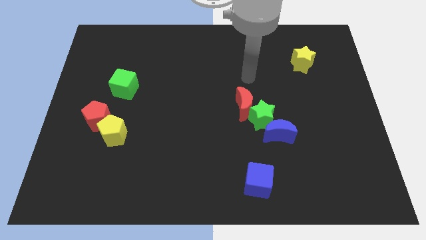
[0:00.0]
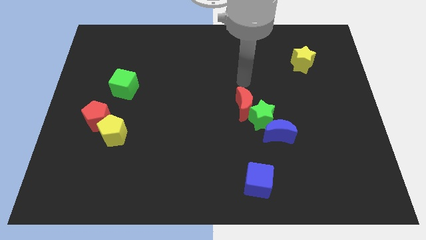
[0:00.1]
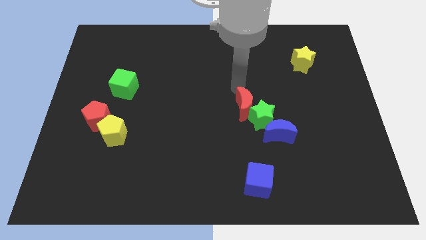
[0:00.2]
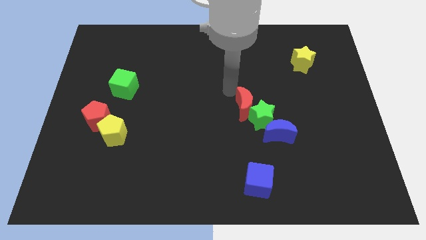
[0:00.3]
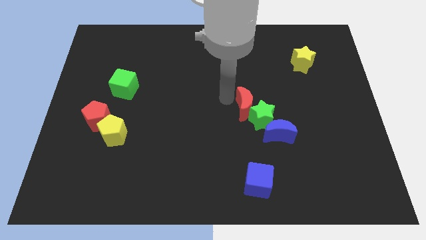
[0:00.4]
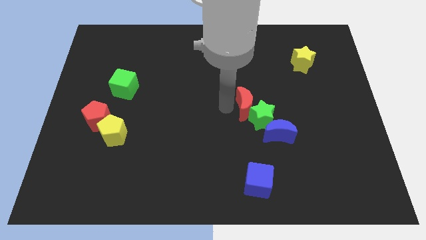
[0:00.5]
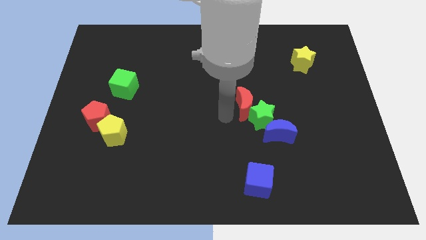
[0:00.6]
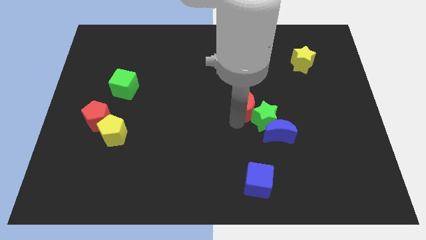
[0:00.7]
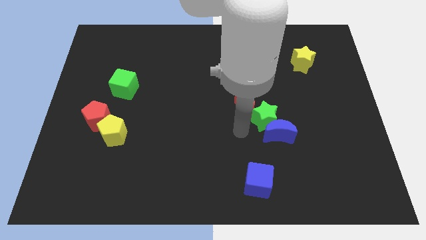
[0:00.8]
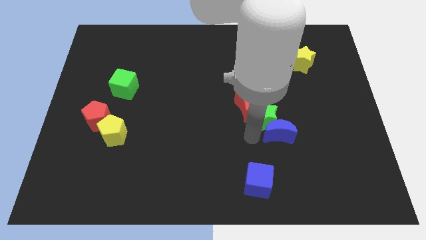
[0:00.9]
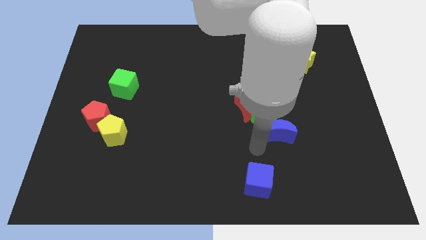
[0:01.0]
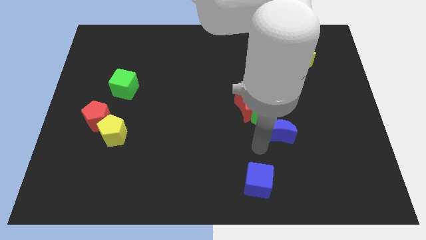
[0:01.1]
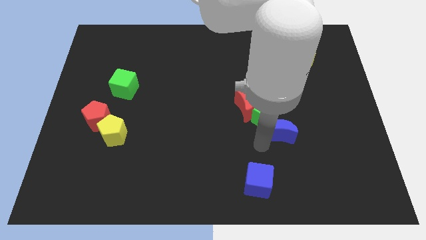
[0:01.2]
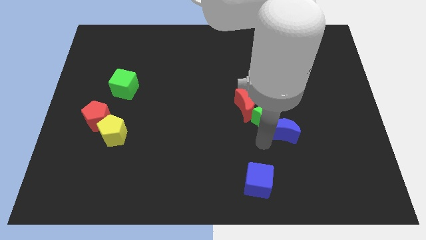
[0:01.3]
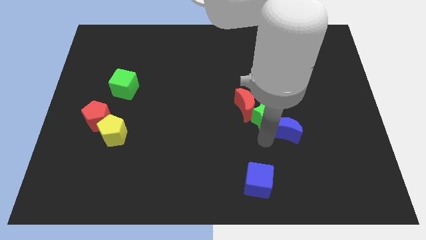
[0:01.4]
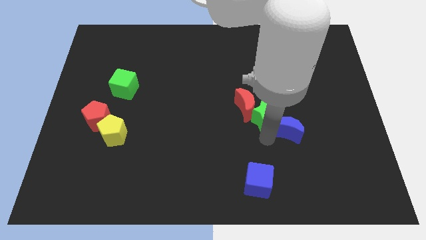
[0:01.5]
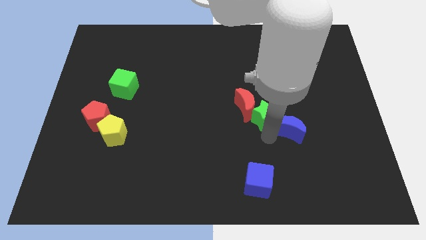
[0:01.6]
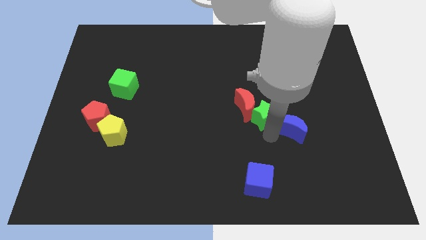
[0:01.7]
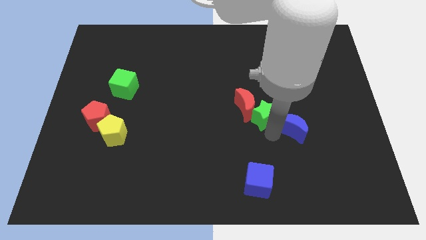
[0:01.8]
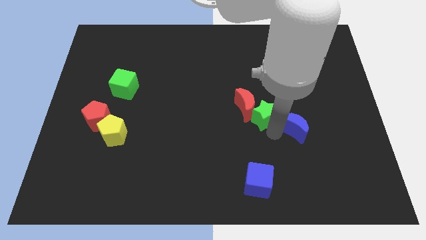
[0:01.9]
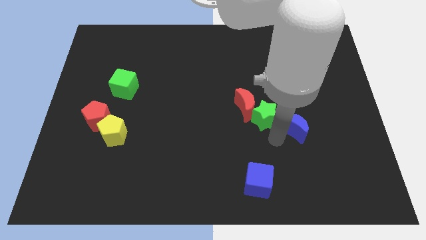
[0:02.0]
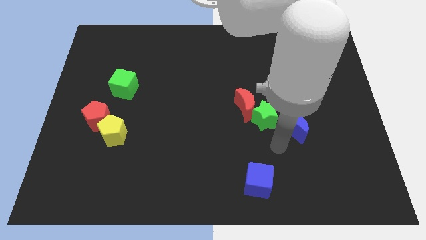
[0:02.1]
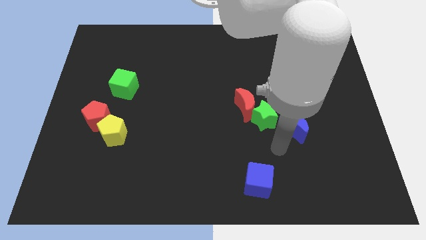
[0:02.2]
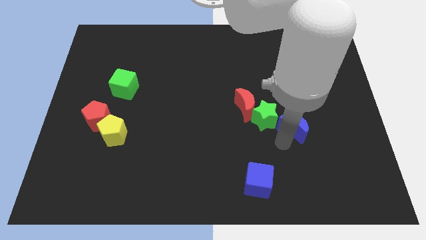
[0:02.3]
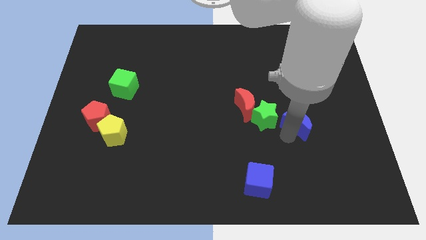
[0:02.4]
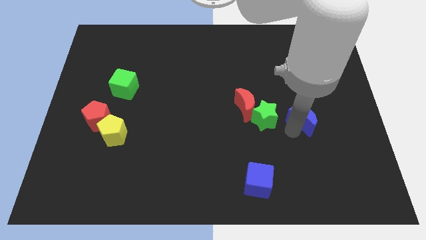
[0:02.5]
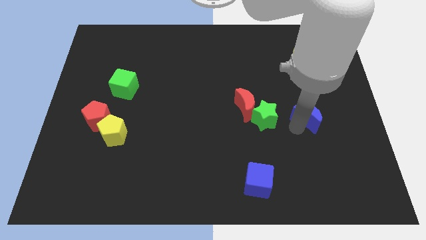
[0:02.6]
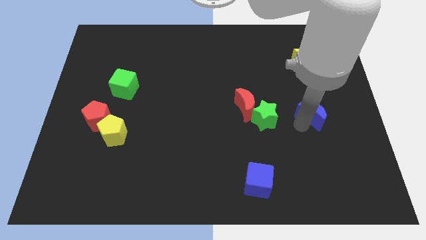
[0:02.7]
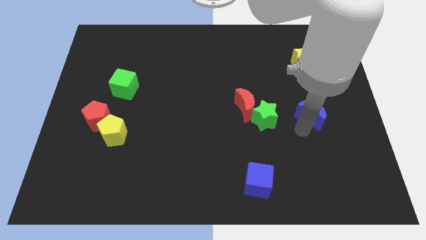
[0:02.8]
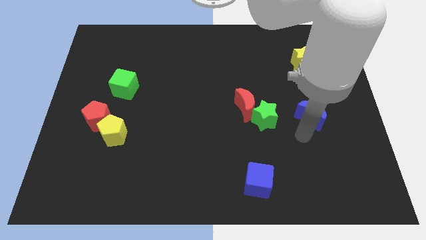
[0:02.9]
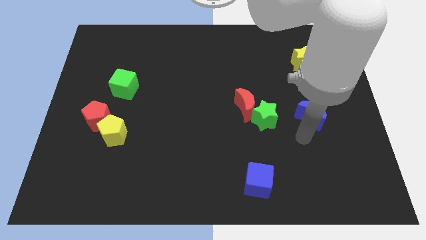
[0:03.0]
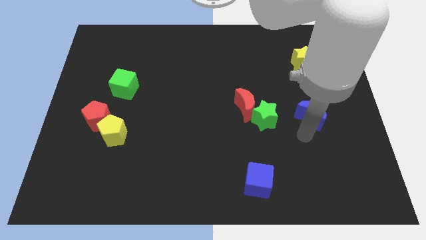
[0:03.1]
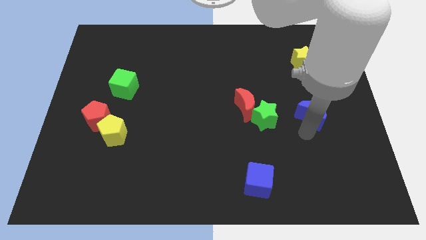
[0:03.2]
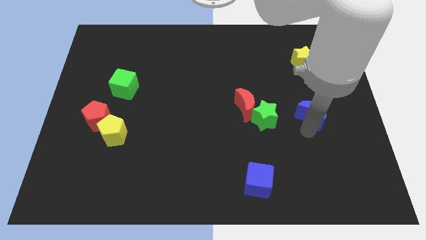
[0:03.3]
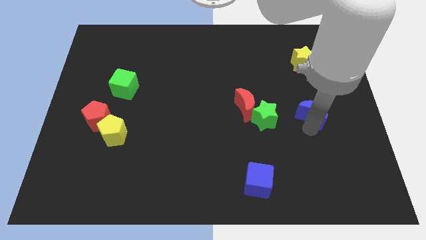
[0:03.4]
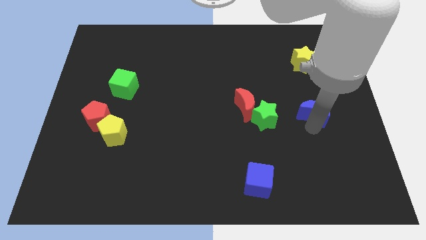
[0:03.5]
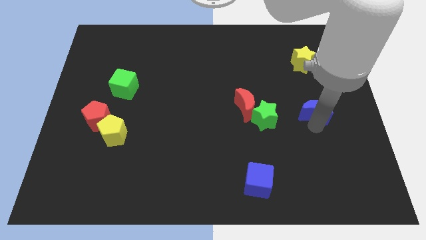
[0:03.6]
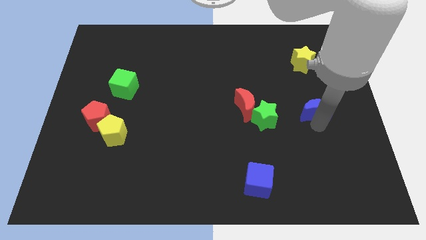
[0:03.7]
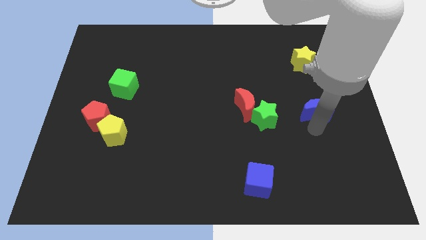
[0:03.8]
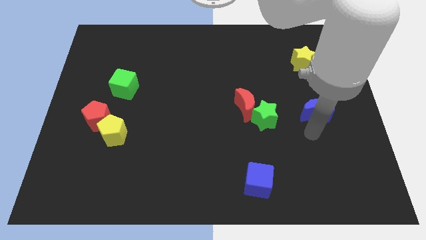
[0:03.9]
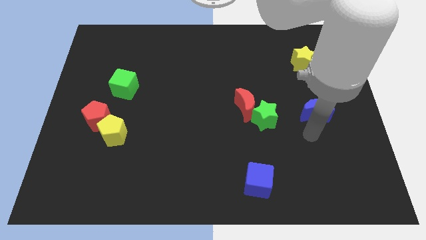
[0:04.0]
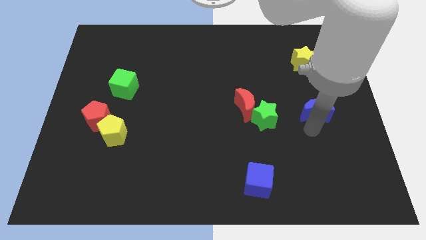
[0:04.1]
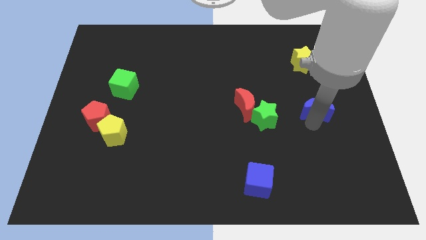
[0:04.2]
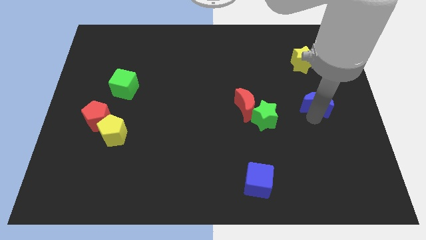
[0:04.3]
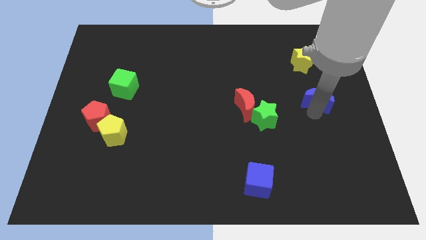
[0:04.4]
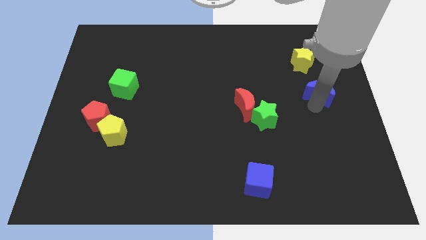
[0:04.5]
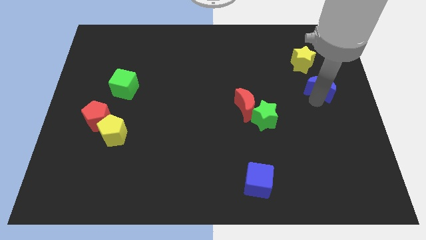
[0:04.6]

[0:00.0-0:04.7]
put the blue moon diagonally down and to the right of the yellow star

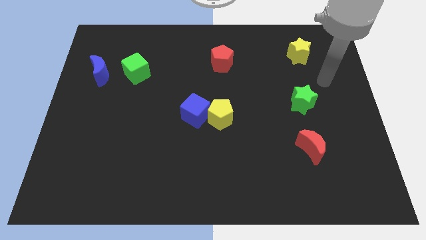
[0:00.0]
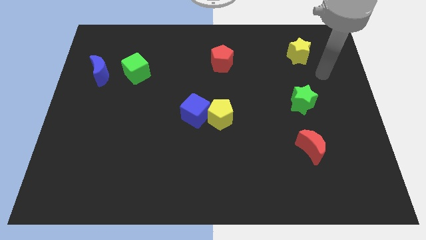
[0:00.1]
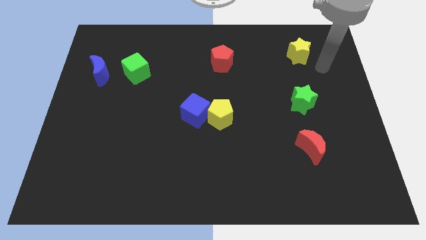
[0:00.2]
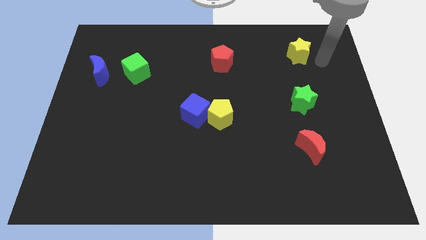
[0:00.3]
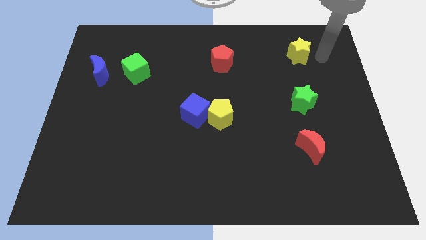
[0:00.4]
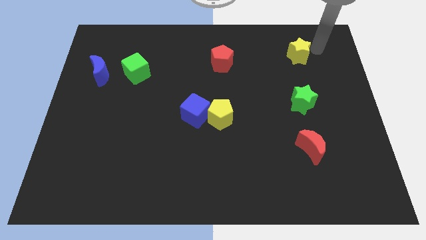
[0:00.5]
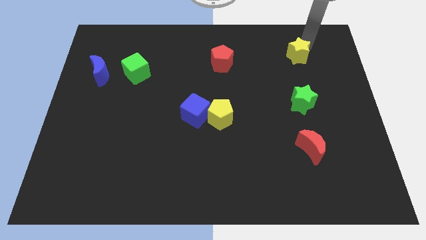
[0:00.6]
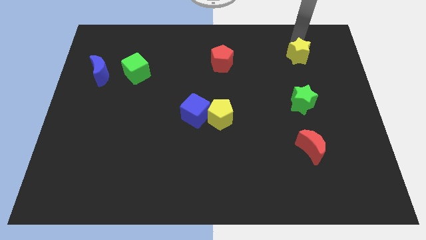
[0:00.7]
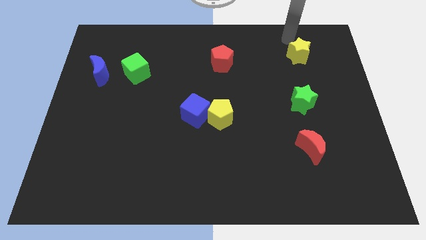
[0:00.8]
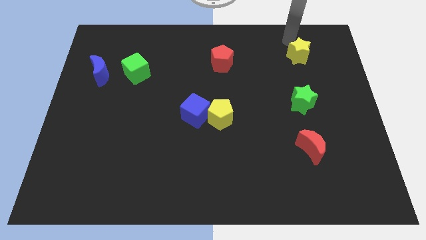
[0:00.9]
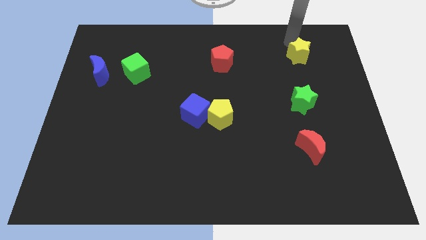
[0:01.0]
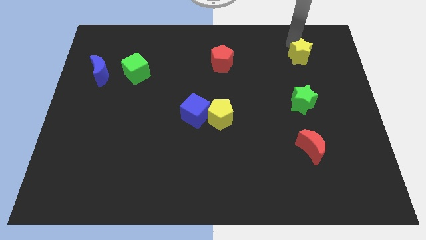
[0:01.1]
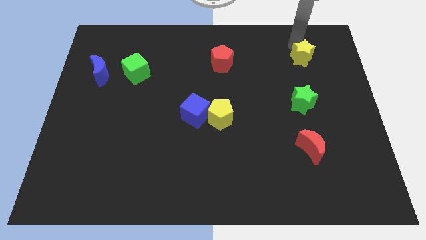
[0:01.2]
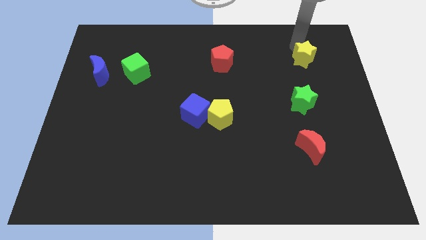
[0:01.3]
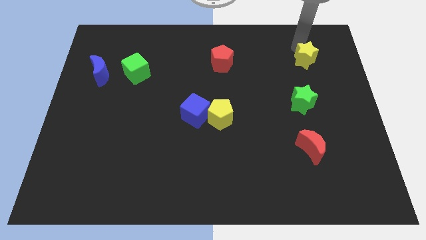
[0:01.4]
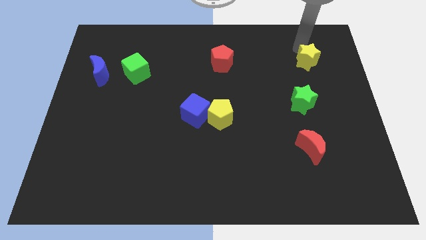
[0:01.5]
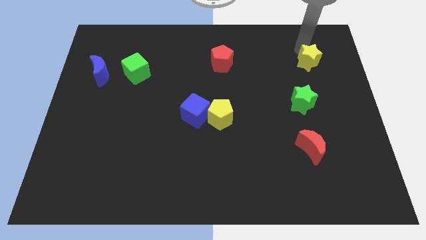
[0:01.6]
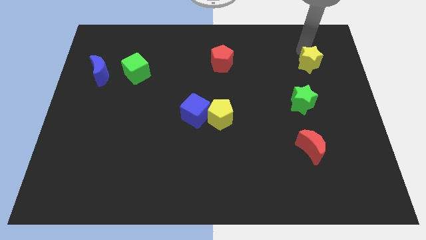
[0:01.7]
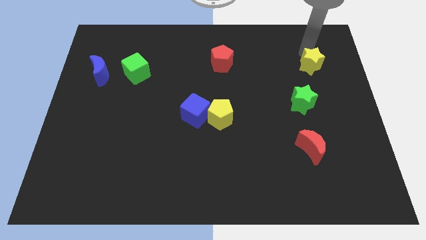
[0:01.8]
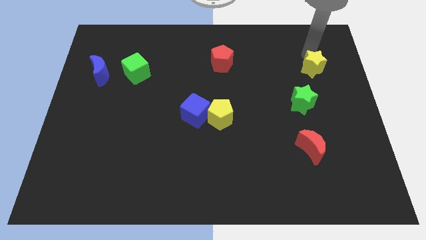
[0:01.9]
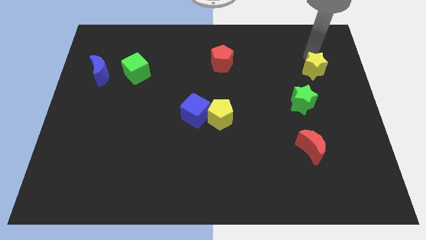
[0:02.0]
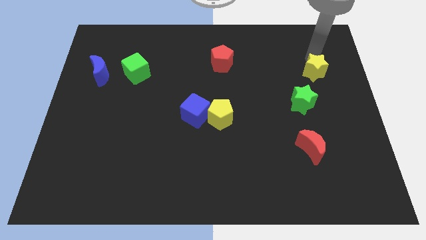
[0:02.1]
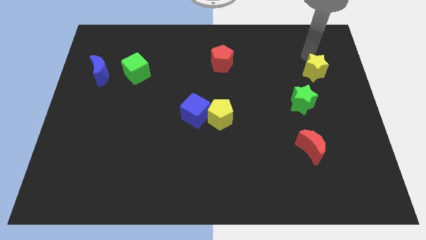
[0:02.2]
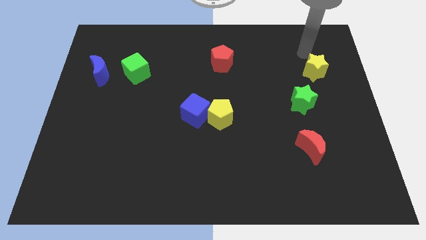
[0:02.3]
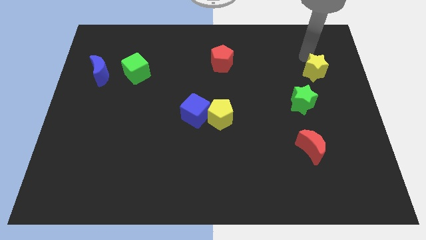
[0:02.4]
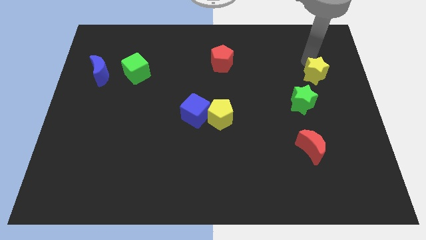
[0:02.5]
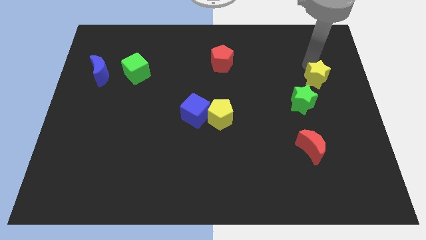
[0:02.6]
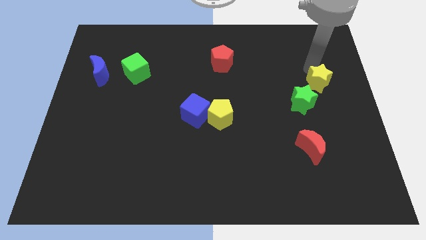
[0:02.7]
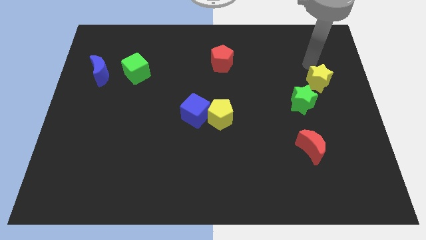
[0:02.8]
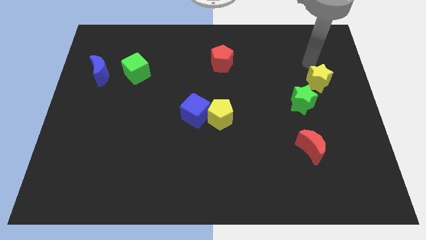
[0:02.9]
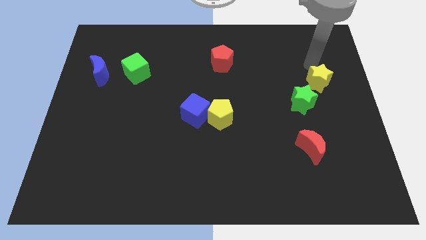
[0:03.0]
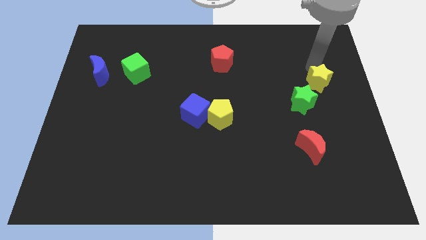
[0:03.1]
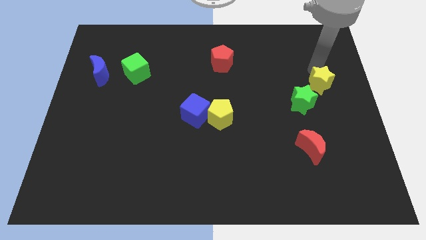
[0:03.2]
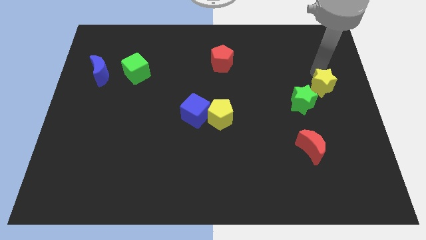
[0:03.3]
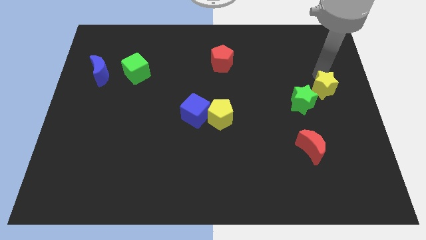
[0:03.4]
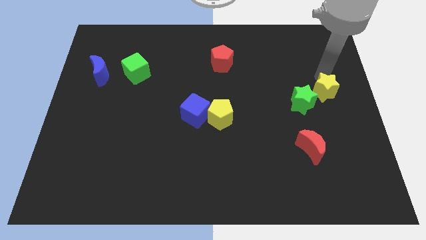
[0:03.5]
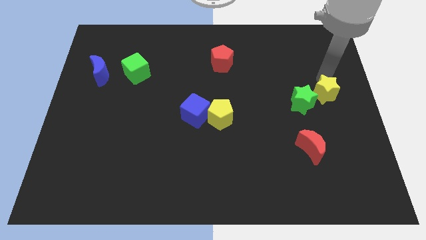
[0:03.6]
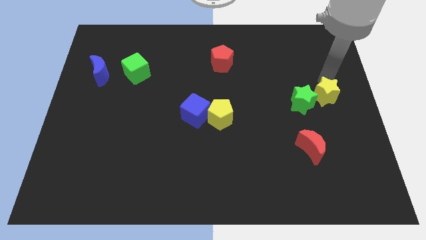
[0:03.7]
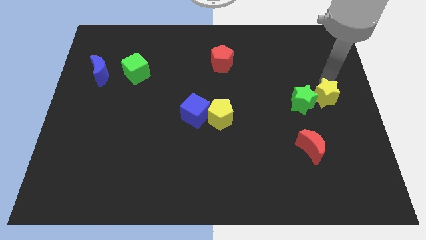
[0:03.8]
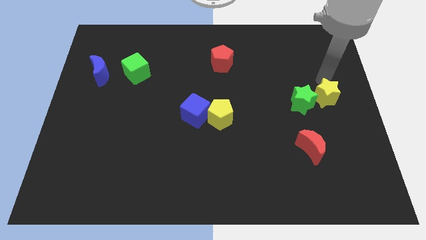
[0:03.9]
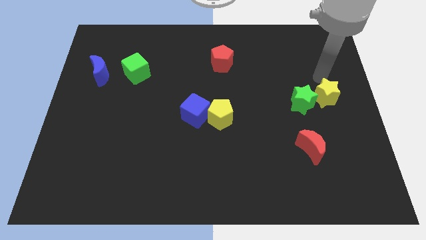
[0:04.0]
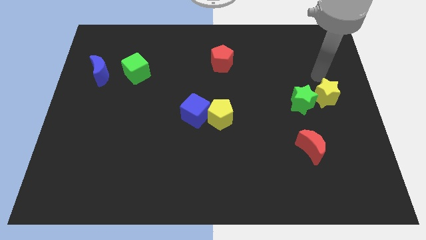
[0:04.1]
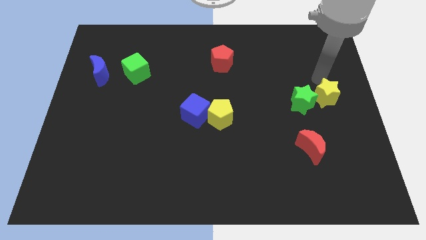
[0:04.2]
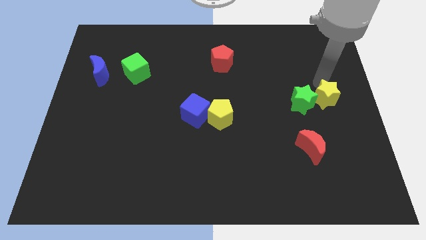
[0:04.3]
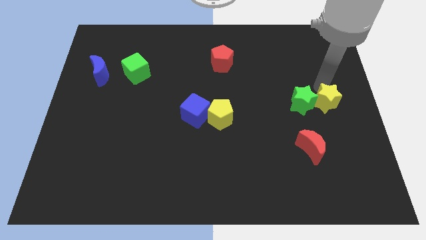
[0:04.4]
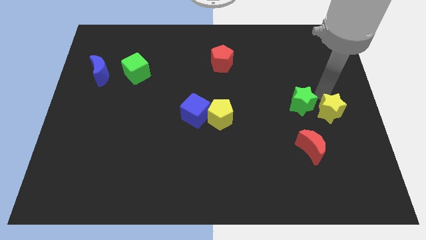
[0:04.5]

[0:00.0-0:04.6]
move the yellow star to the top right side of the red moon
